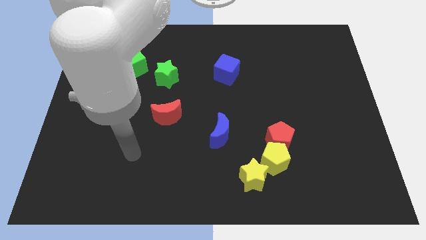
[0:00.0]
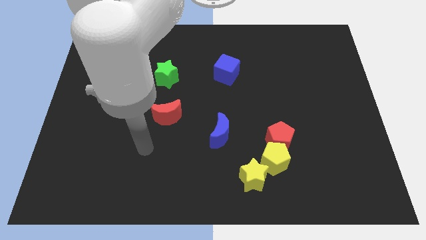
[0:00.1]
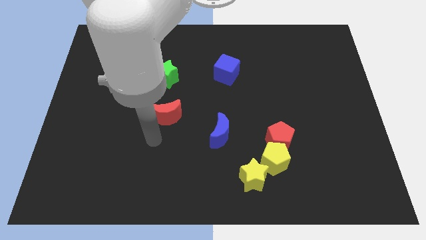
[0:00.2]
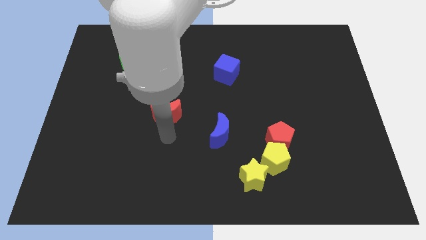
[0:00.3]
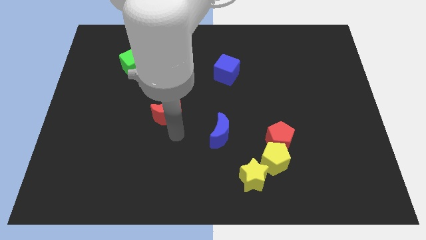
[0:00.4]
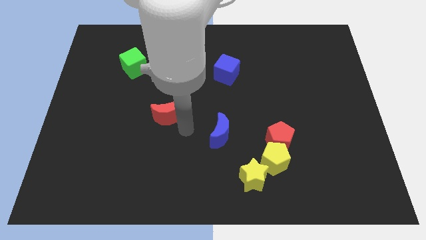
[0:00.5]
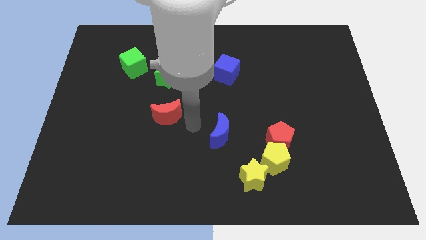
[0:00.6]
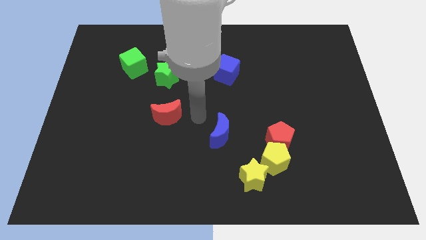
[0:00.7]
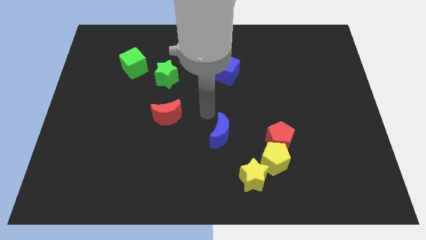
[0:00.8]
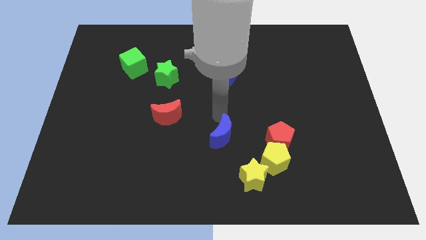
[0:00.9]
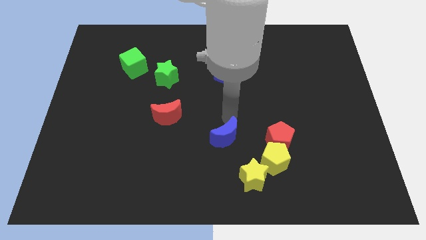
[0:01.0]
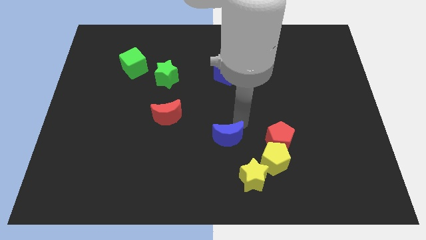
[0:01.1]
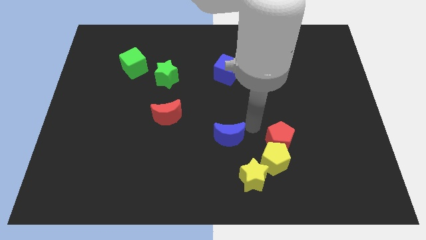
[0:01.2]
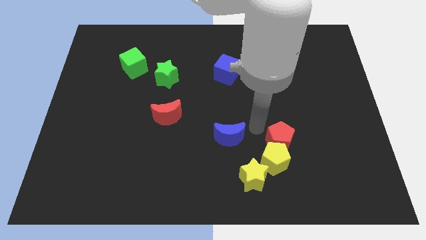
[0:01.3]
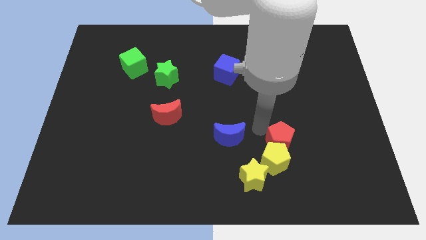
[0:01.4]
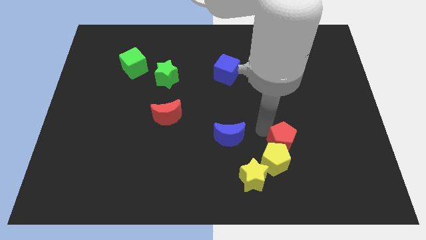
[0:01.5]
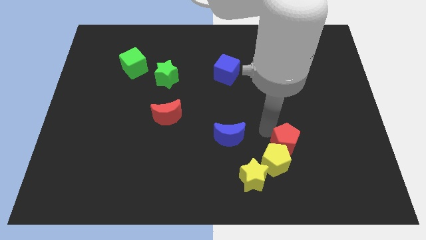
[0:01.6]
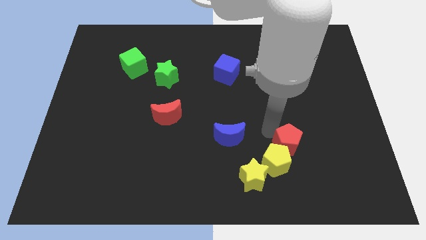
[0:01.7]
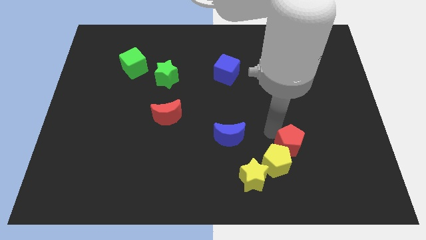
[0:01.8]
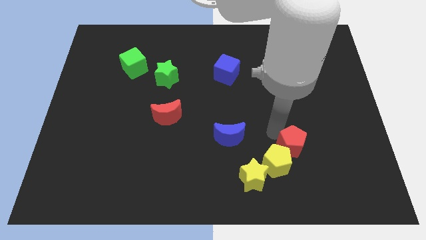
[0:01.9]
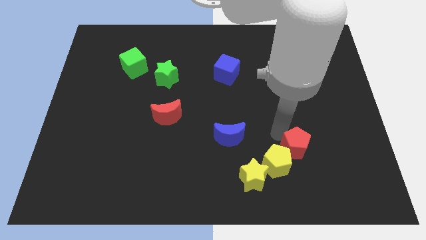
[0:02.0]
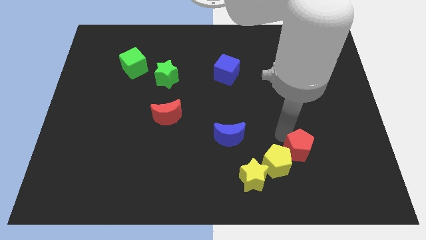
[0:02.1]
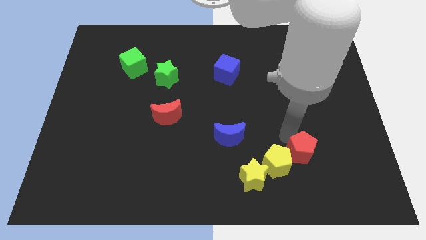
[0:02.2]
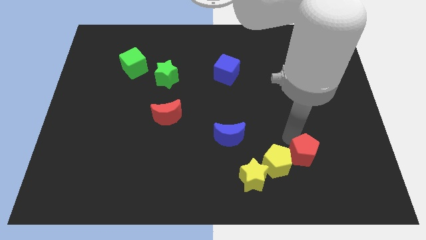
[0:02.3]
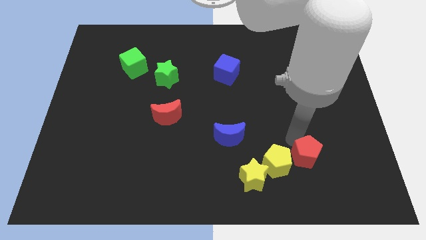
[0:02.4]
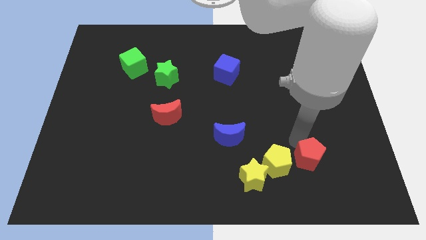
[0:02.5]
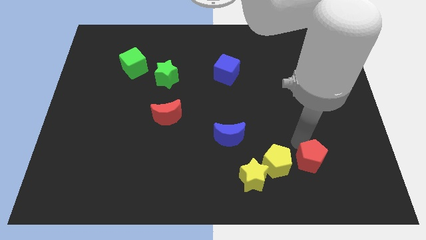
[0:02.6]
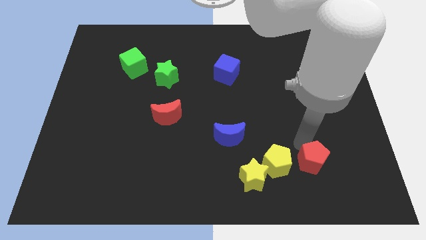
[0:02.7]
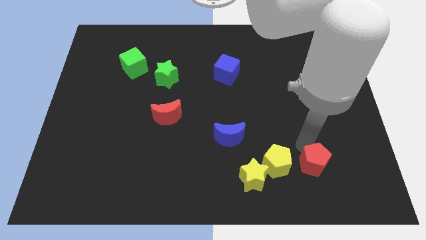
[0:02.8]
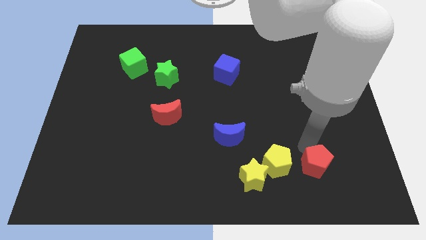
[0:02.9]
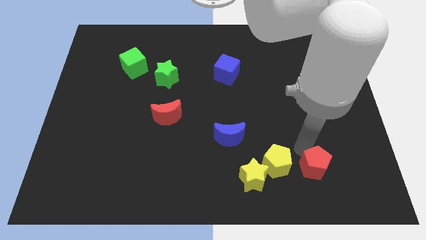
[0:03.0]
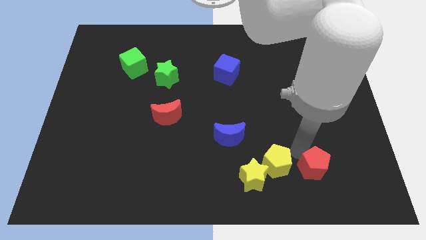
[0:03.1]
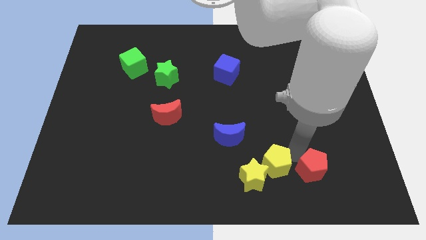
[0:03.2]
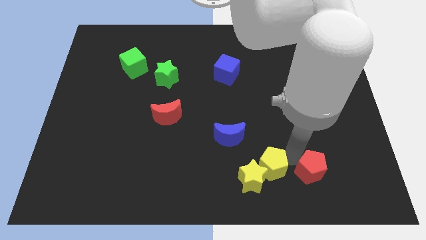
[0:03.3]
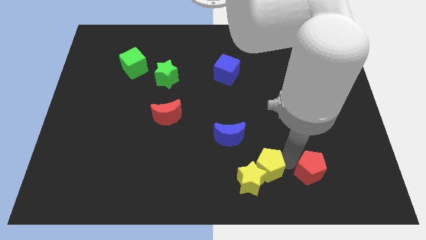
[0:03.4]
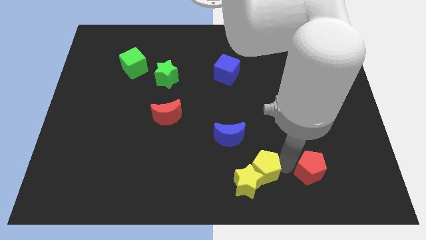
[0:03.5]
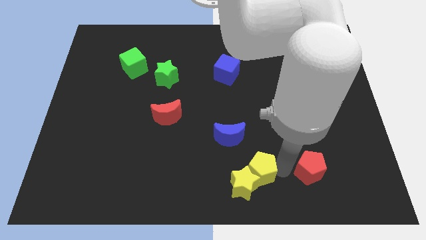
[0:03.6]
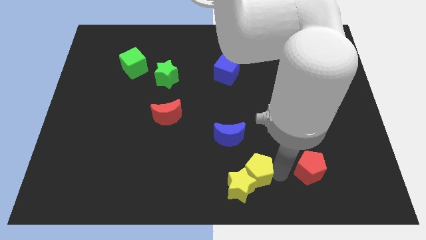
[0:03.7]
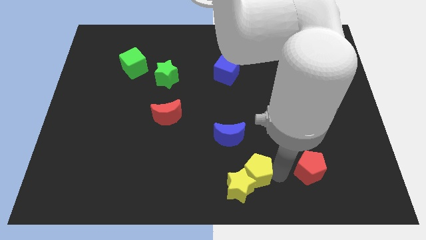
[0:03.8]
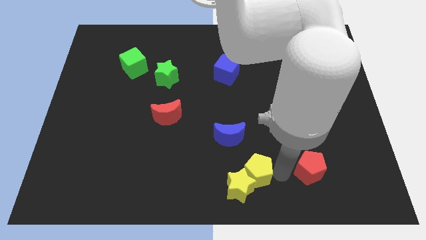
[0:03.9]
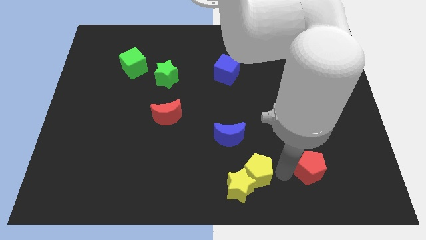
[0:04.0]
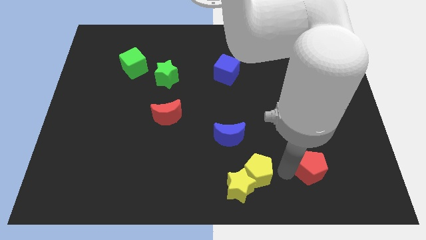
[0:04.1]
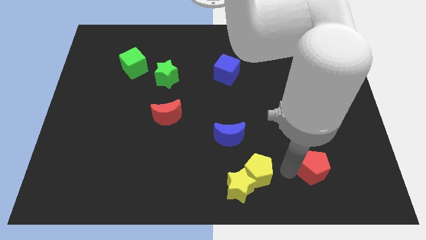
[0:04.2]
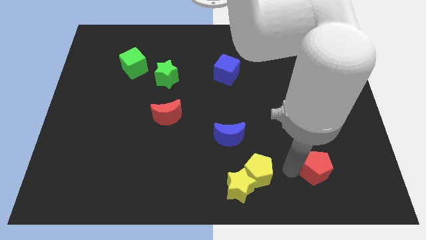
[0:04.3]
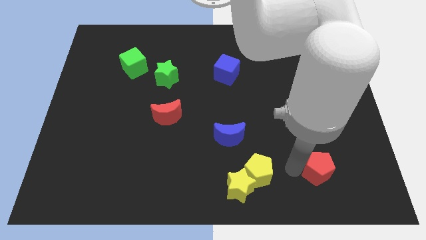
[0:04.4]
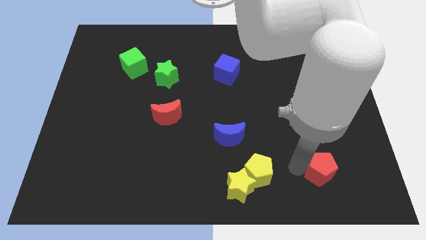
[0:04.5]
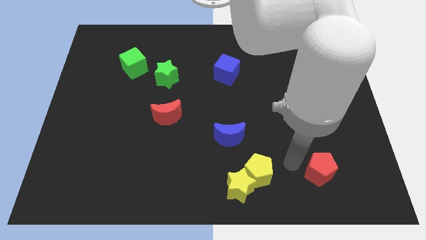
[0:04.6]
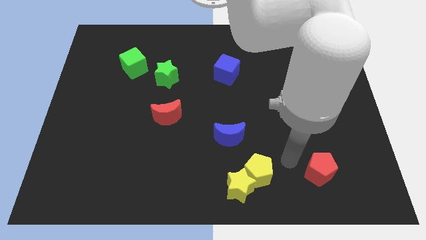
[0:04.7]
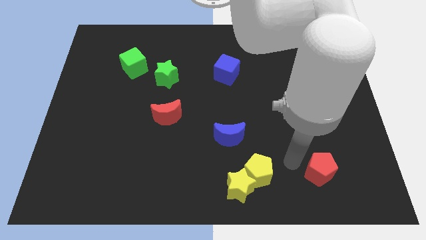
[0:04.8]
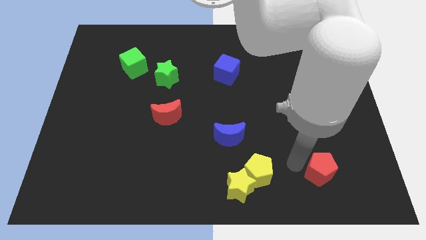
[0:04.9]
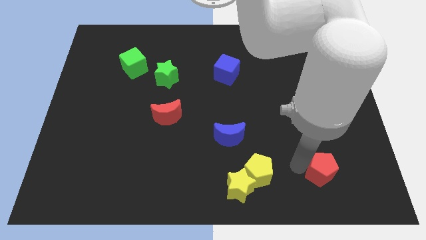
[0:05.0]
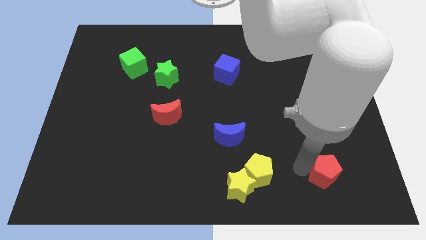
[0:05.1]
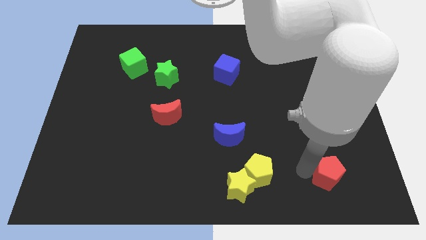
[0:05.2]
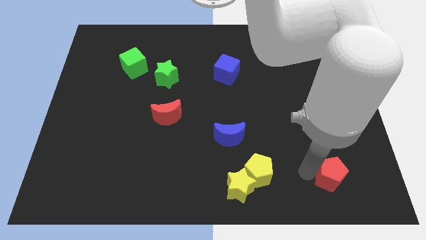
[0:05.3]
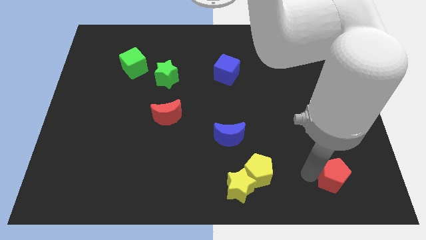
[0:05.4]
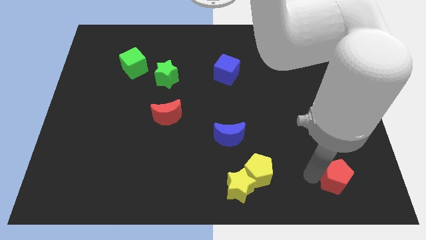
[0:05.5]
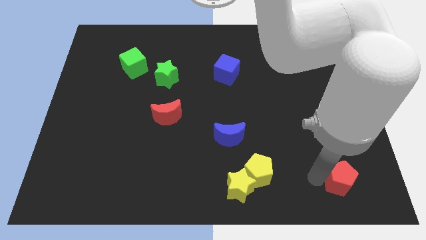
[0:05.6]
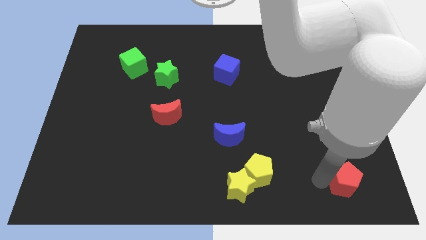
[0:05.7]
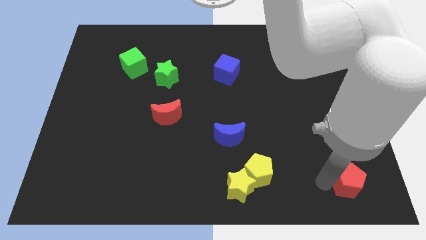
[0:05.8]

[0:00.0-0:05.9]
push the red pentagon to the bottom right
